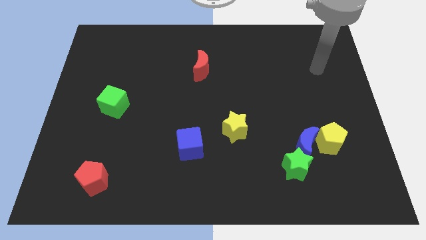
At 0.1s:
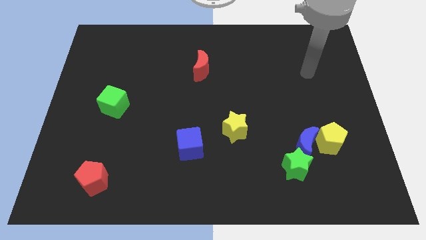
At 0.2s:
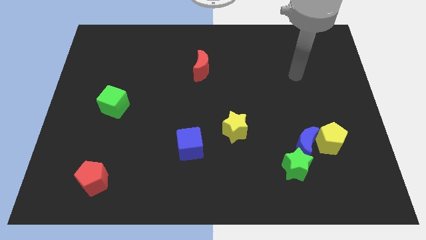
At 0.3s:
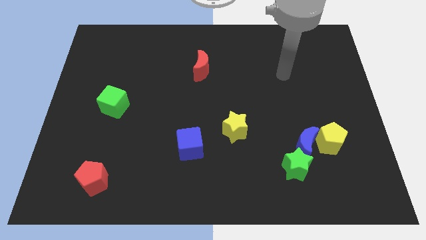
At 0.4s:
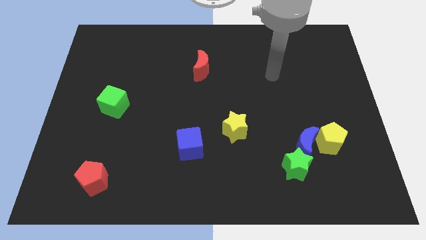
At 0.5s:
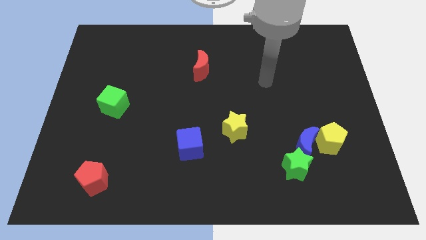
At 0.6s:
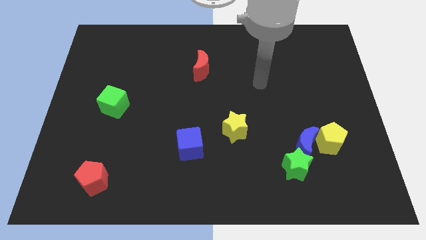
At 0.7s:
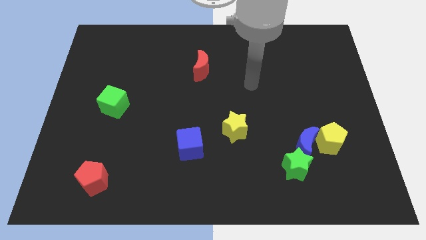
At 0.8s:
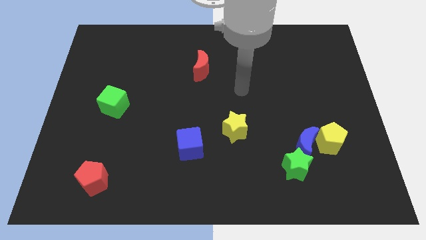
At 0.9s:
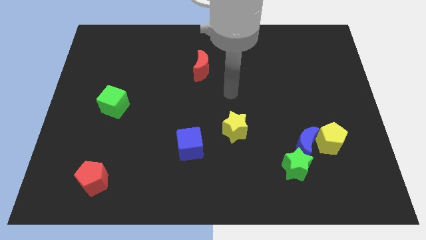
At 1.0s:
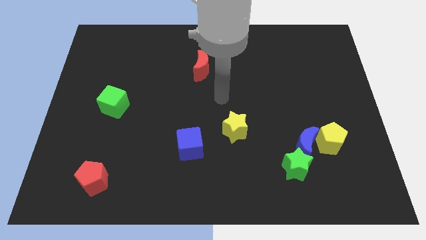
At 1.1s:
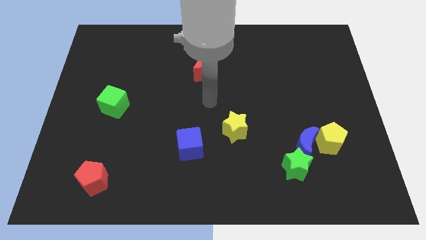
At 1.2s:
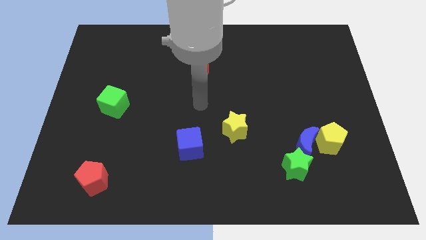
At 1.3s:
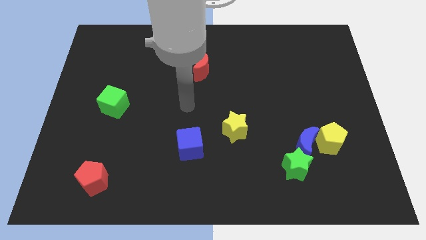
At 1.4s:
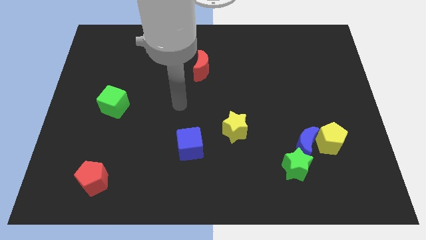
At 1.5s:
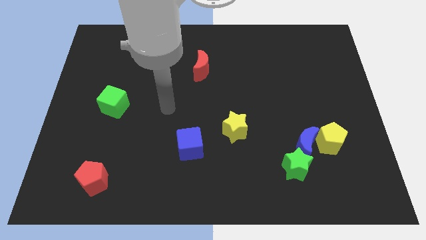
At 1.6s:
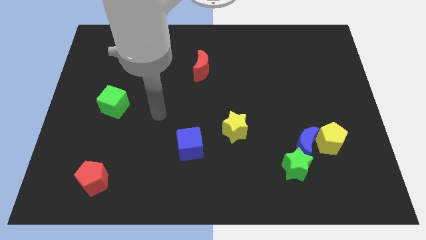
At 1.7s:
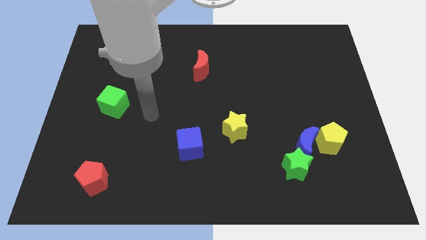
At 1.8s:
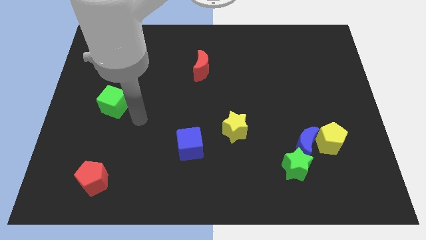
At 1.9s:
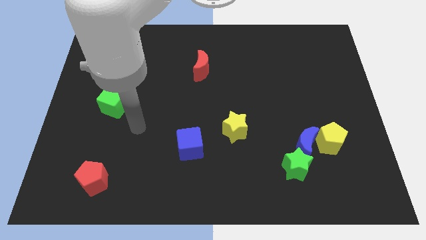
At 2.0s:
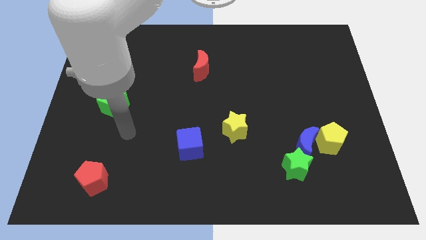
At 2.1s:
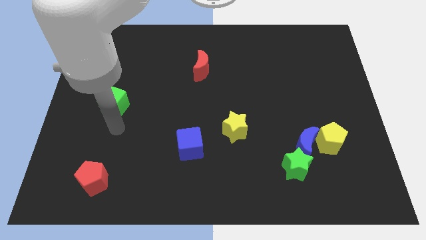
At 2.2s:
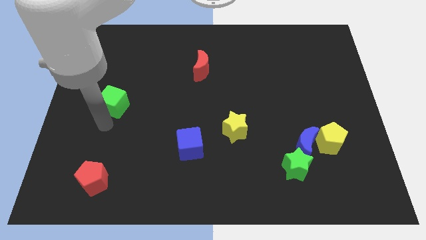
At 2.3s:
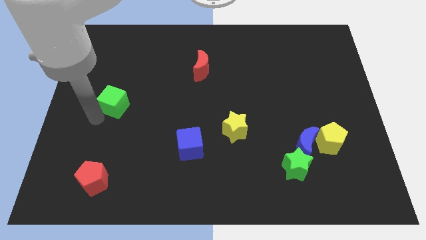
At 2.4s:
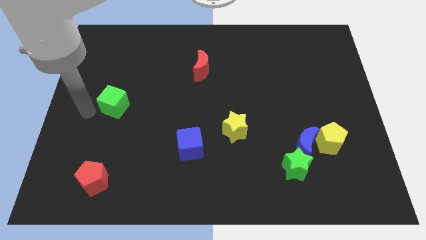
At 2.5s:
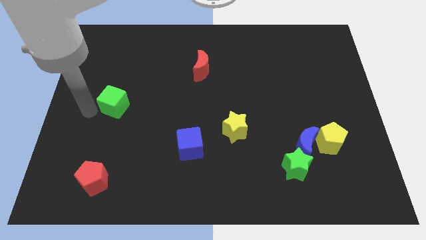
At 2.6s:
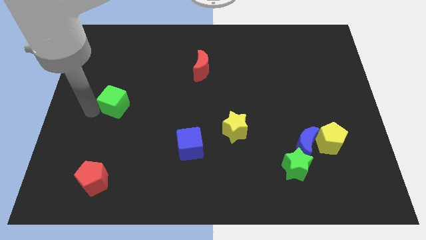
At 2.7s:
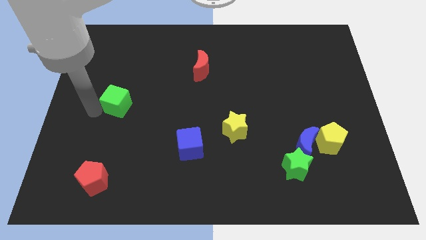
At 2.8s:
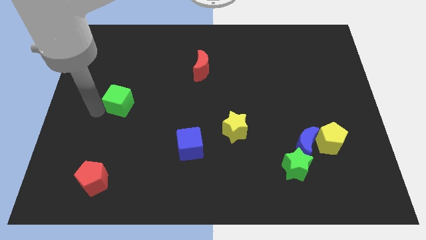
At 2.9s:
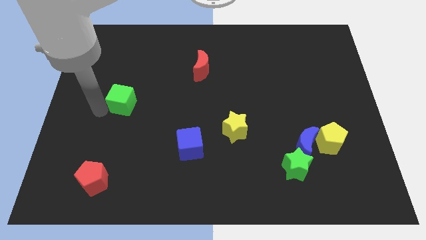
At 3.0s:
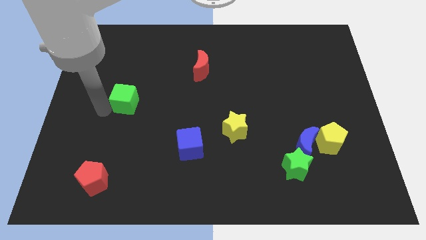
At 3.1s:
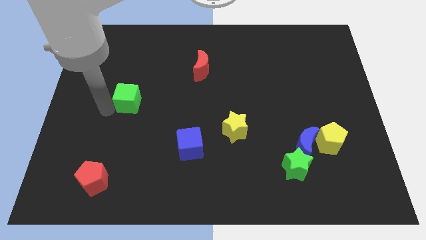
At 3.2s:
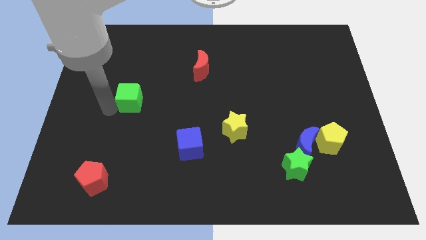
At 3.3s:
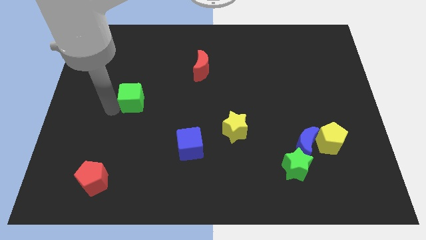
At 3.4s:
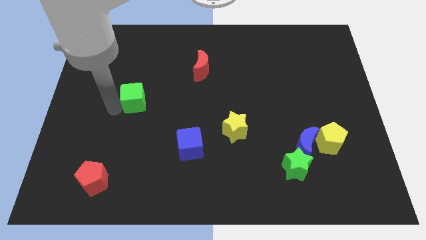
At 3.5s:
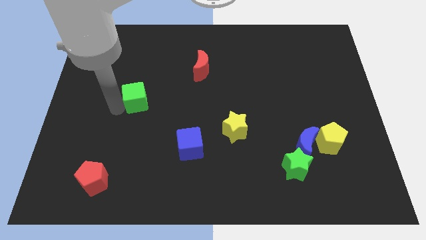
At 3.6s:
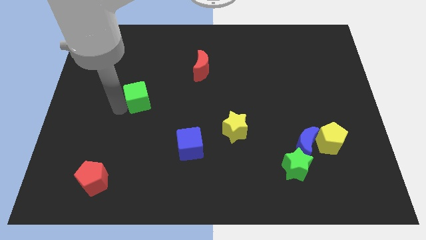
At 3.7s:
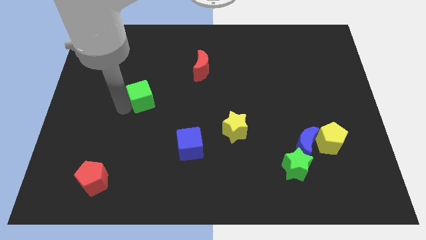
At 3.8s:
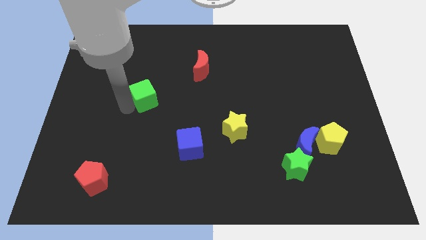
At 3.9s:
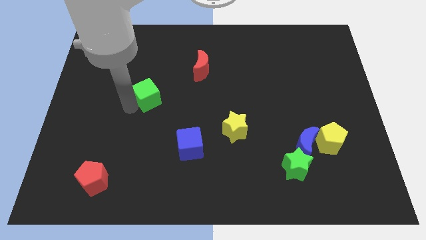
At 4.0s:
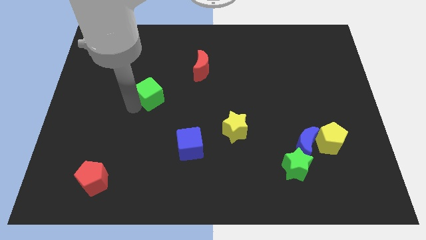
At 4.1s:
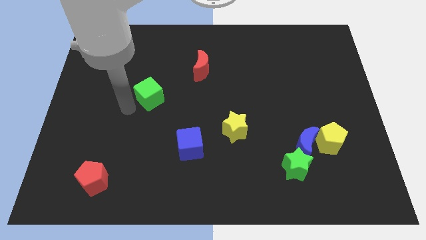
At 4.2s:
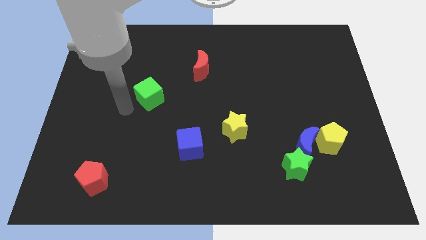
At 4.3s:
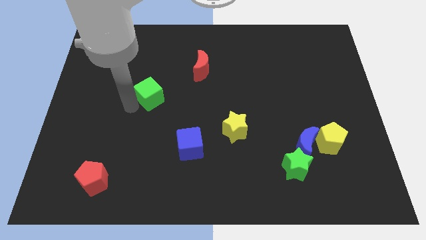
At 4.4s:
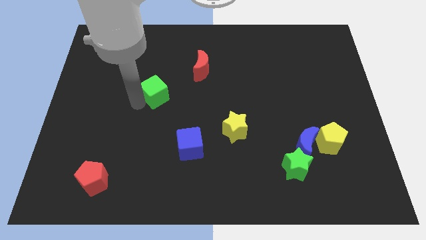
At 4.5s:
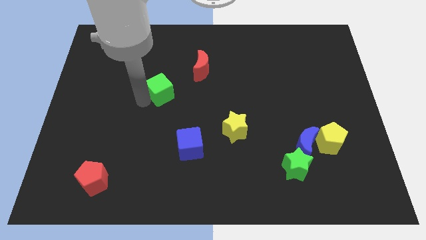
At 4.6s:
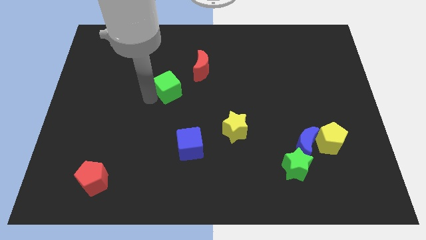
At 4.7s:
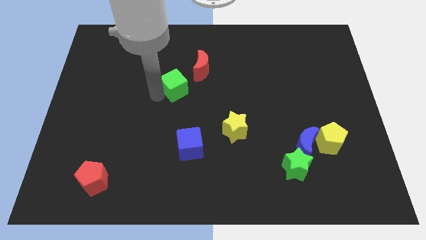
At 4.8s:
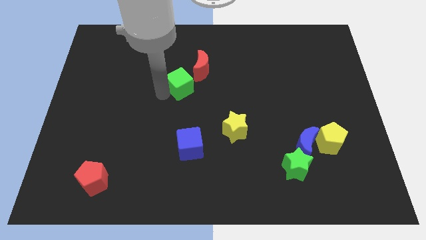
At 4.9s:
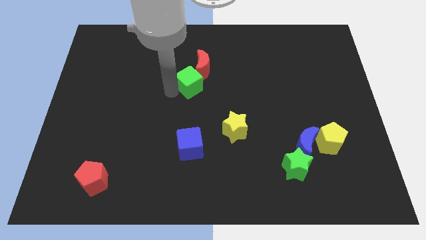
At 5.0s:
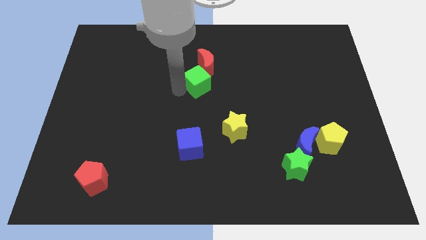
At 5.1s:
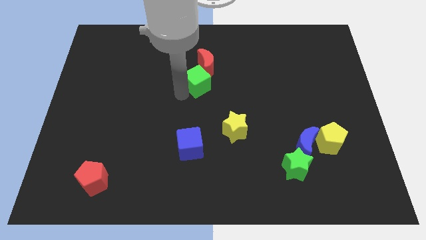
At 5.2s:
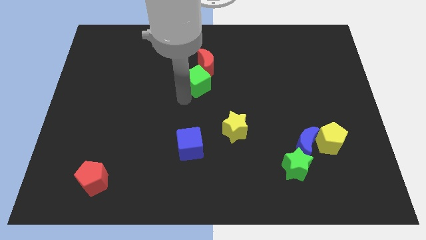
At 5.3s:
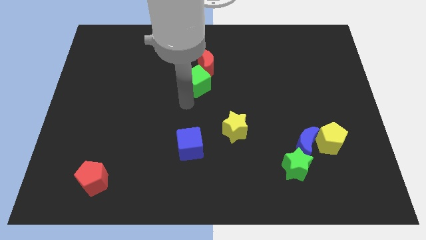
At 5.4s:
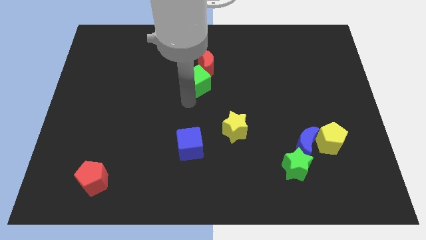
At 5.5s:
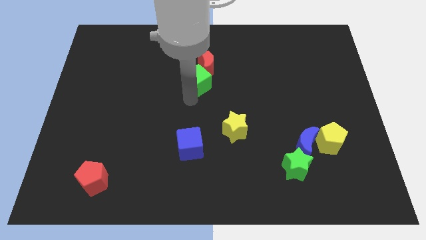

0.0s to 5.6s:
put the green cube towards the red moon

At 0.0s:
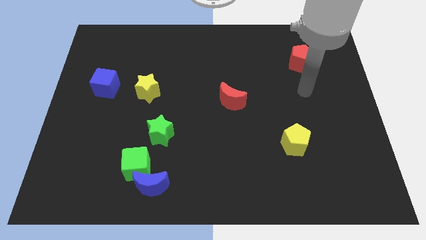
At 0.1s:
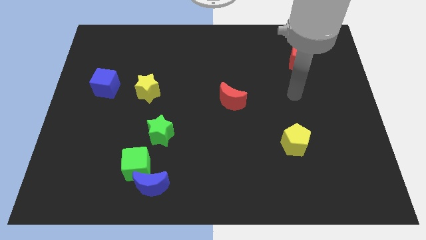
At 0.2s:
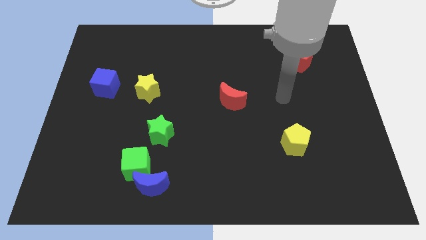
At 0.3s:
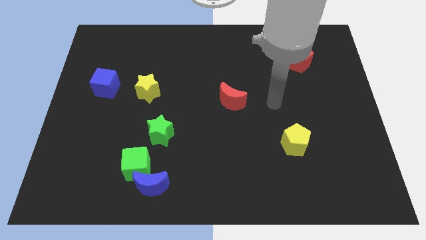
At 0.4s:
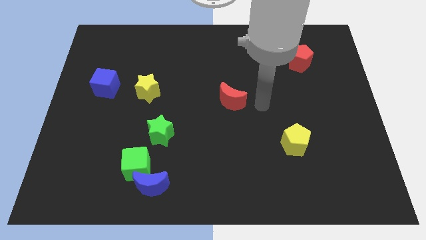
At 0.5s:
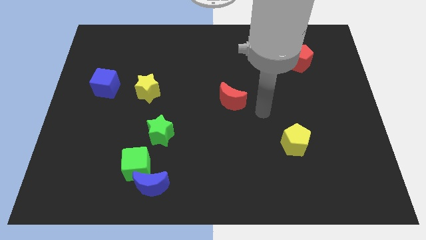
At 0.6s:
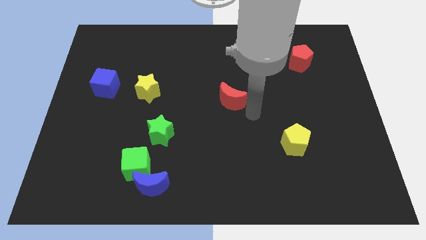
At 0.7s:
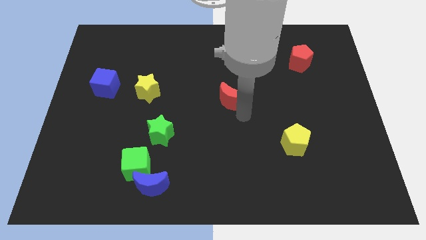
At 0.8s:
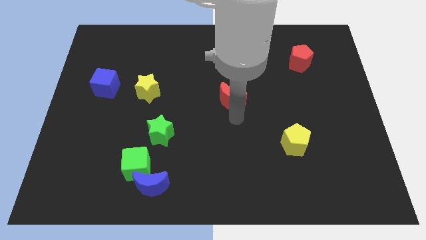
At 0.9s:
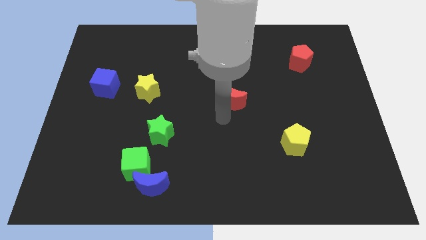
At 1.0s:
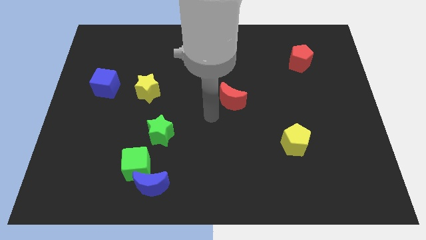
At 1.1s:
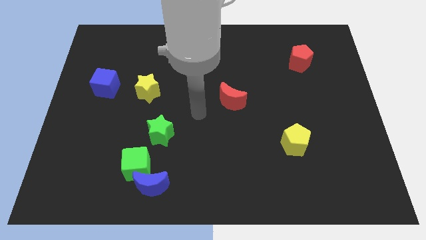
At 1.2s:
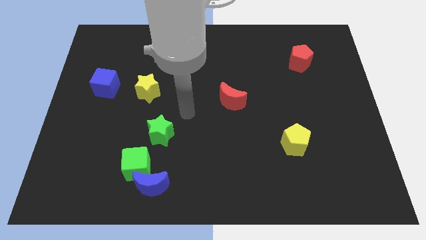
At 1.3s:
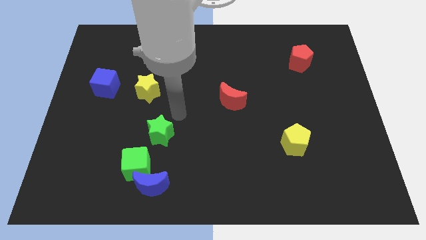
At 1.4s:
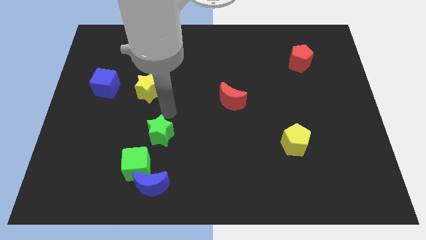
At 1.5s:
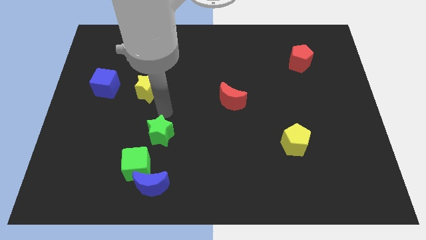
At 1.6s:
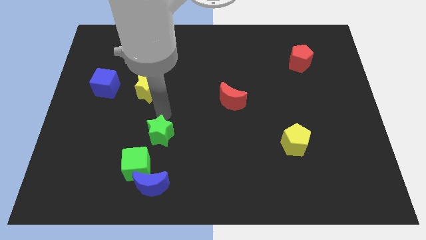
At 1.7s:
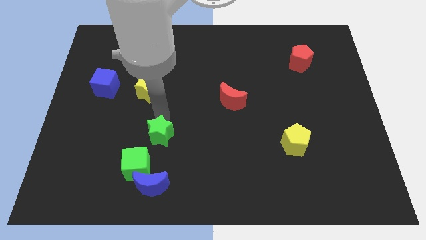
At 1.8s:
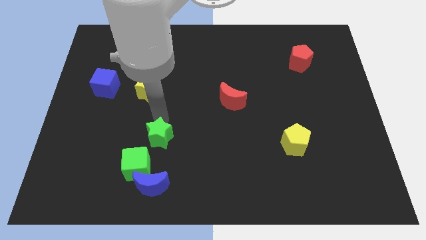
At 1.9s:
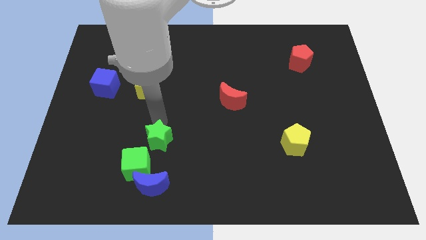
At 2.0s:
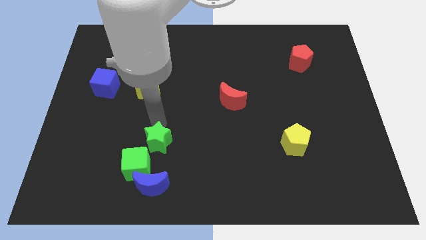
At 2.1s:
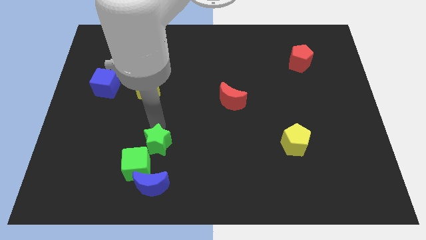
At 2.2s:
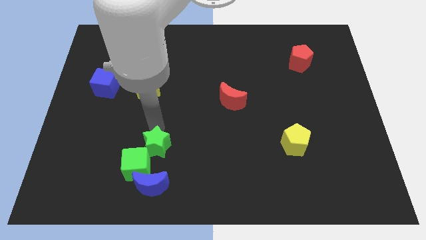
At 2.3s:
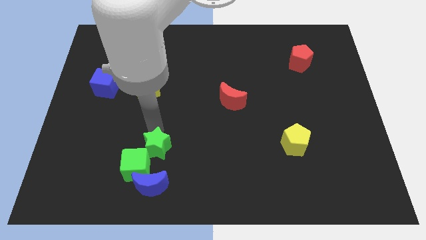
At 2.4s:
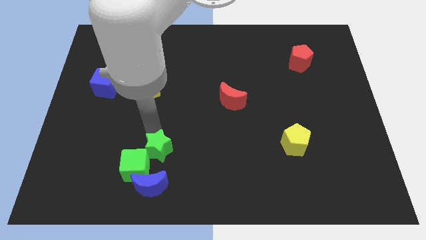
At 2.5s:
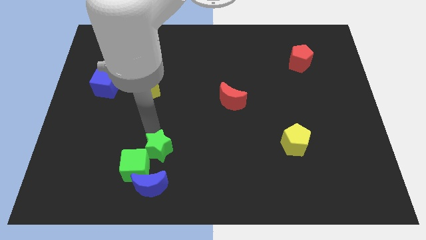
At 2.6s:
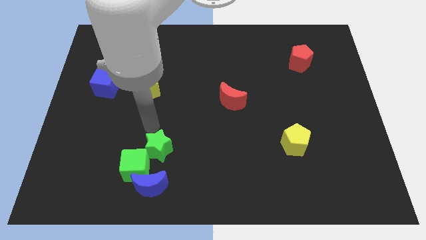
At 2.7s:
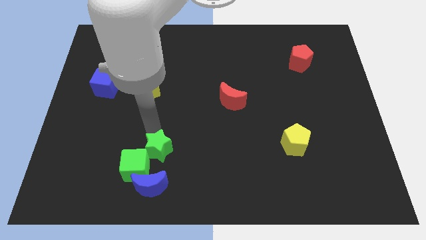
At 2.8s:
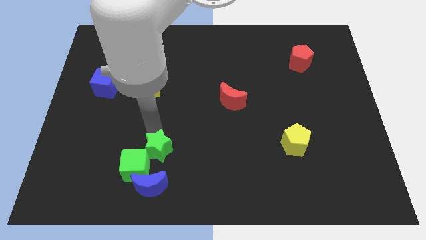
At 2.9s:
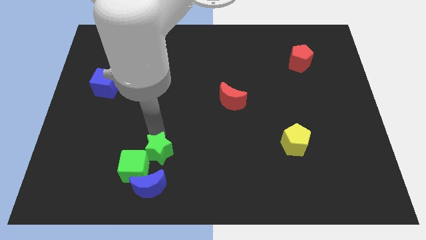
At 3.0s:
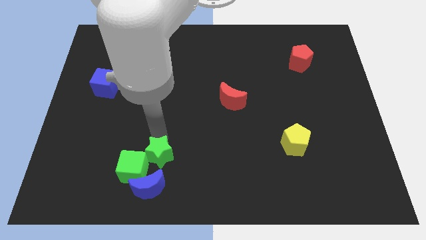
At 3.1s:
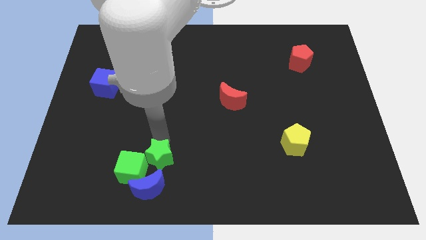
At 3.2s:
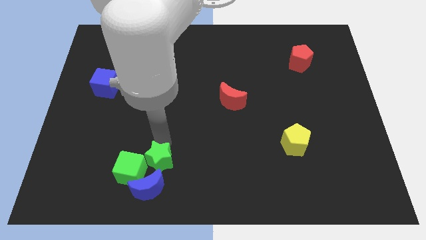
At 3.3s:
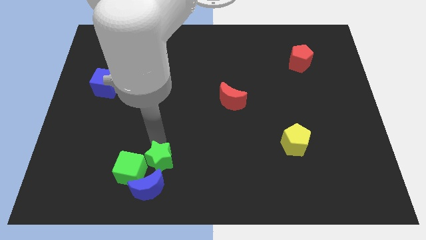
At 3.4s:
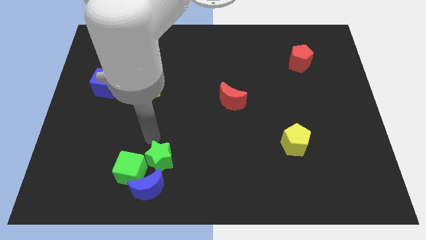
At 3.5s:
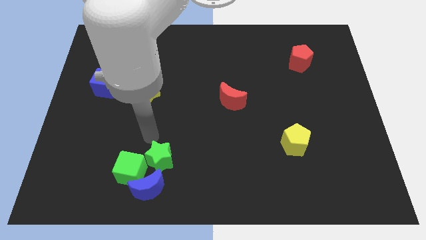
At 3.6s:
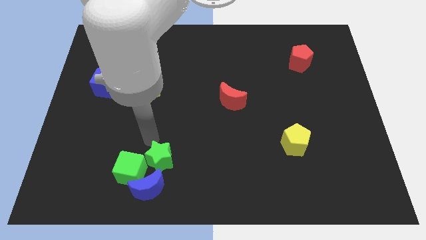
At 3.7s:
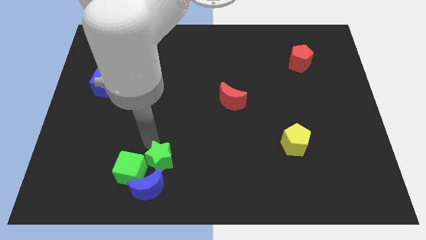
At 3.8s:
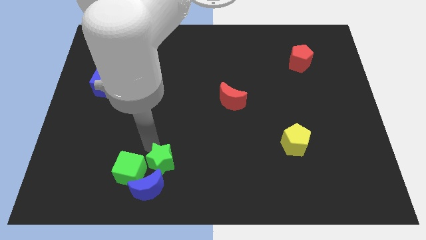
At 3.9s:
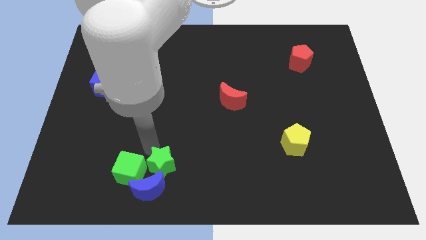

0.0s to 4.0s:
put the green star close to the blue moon
